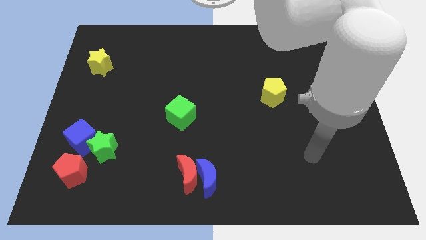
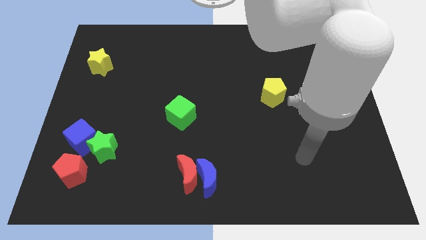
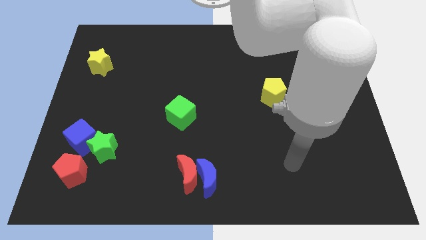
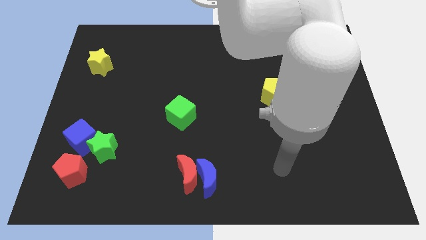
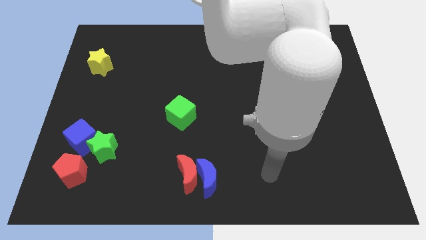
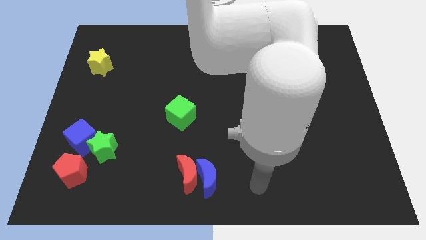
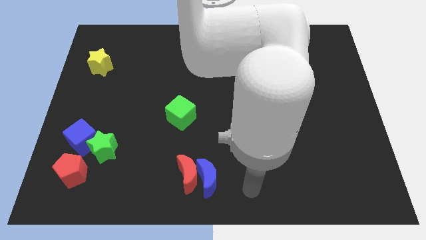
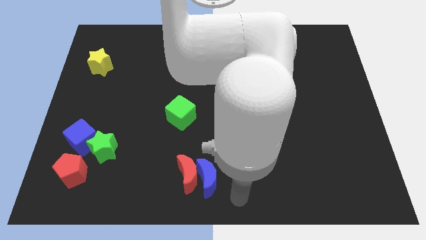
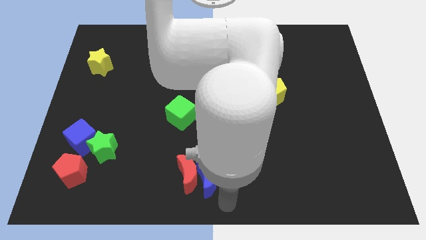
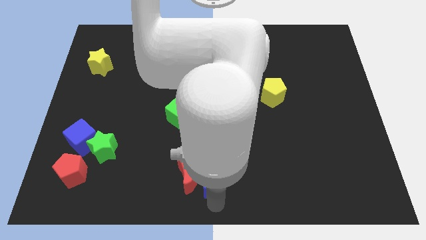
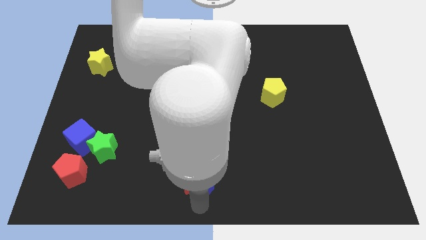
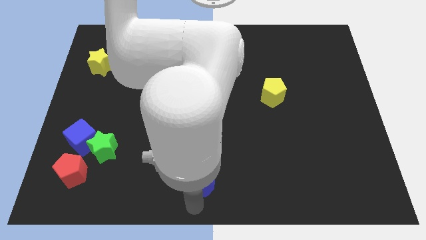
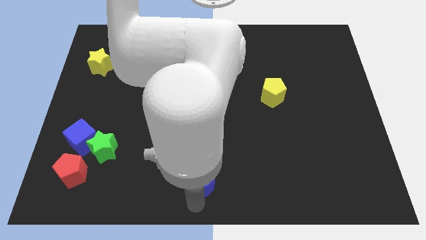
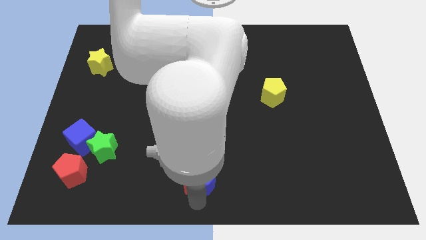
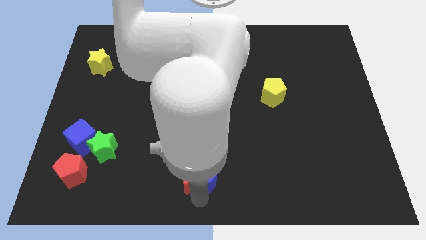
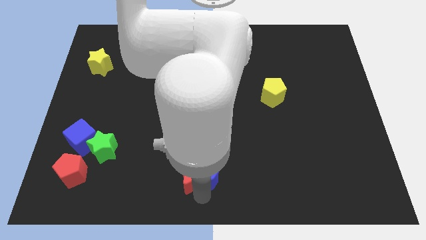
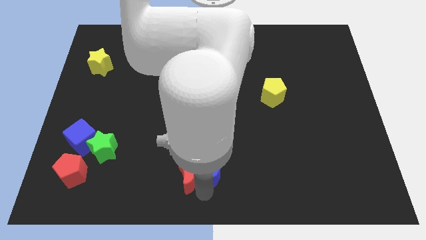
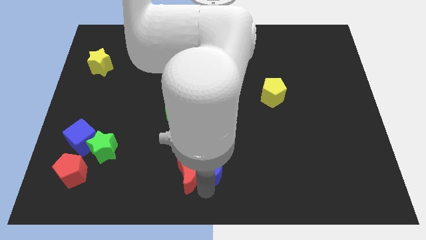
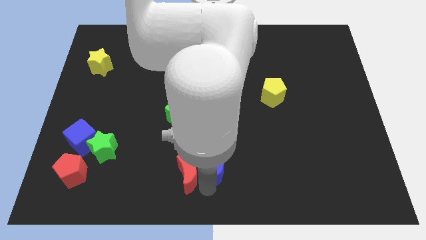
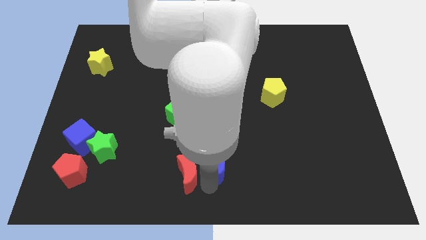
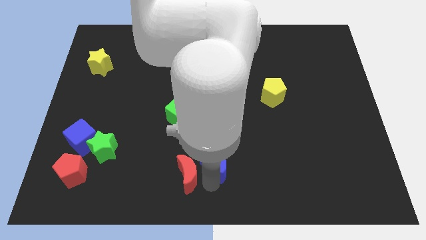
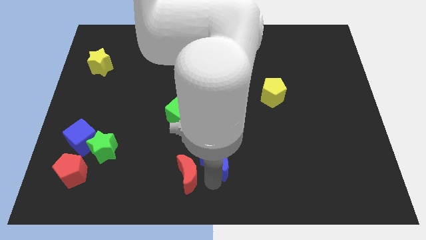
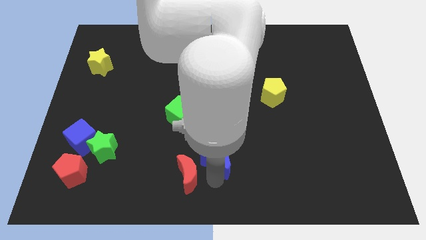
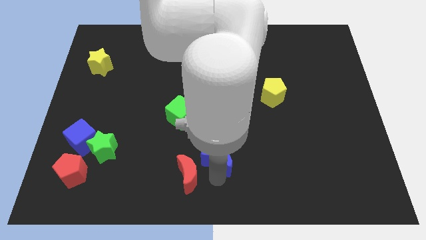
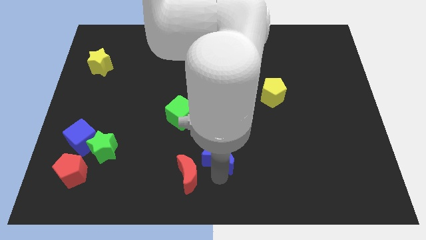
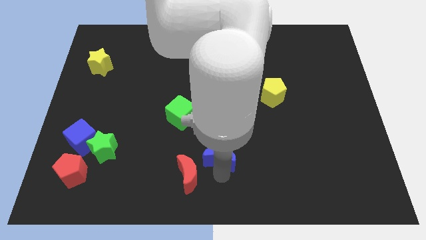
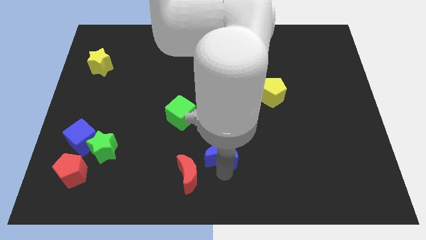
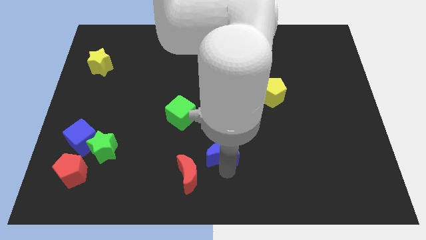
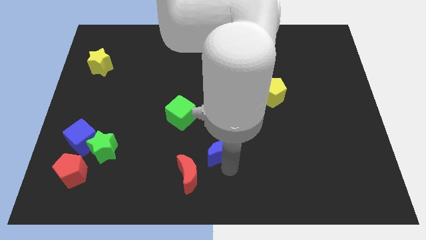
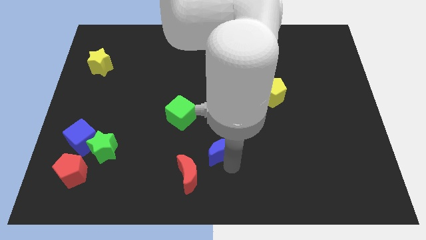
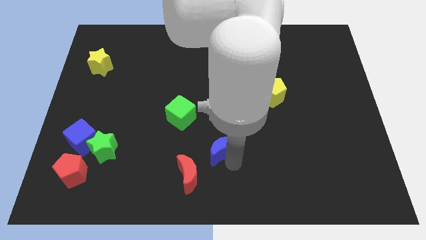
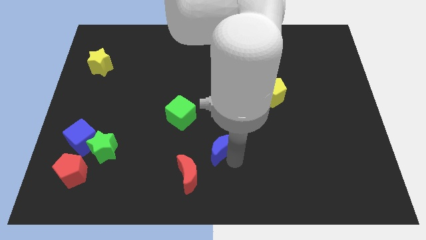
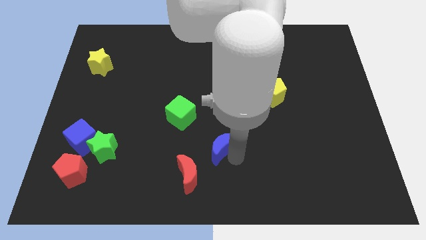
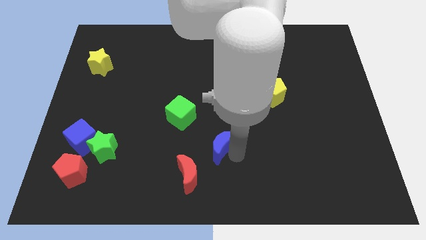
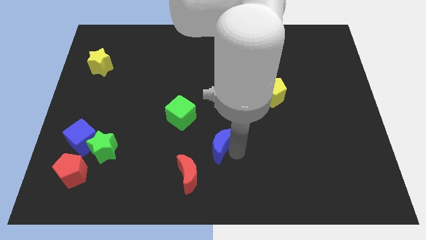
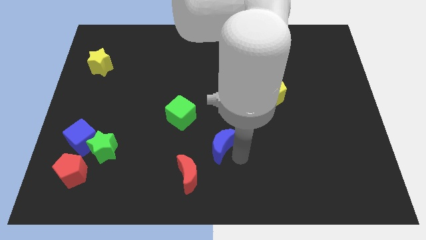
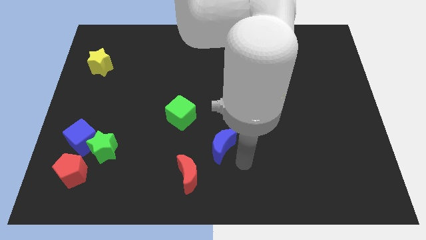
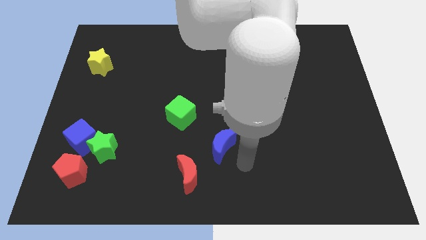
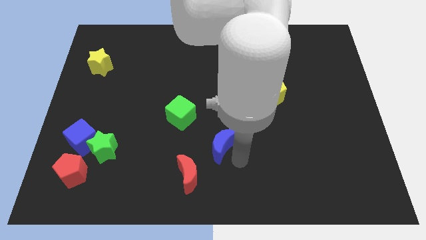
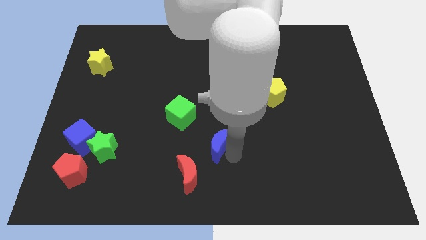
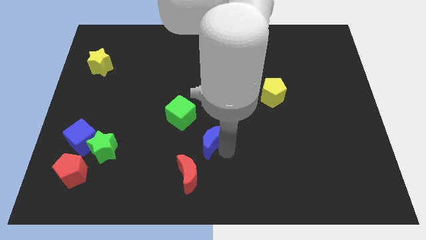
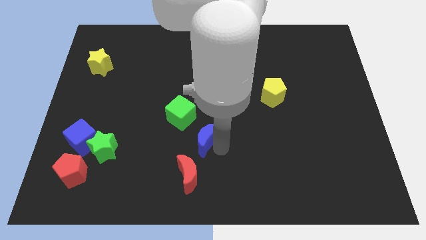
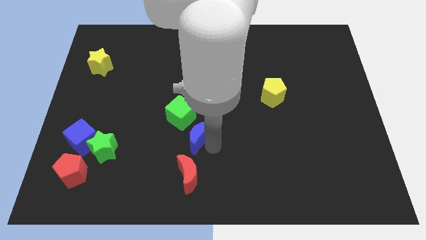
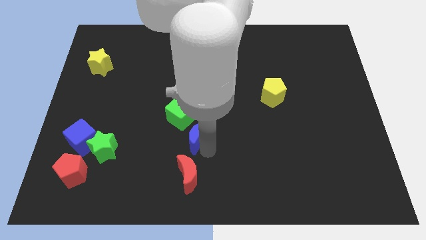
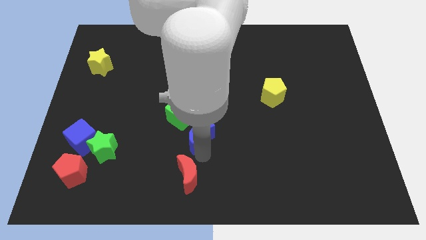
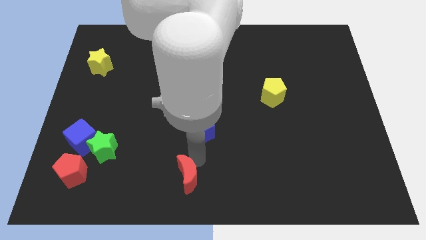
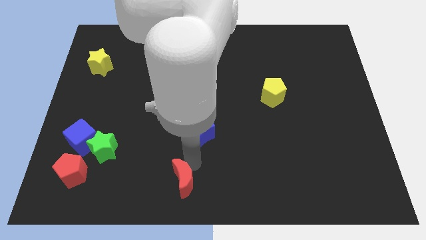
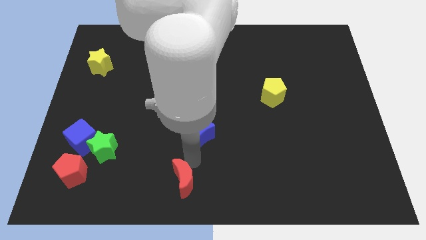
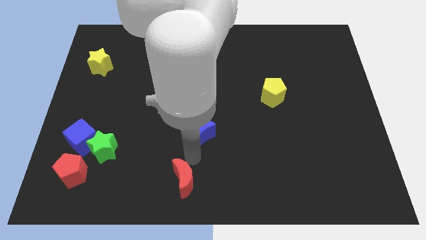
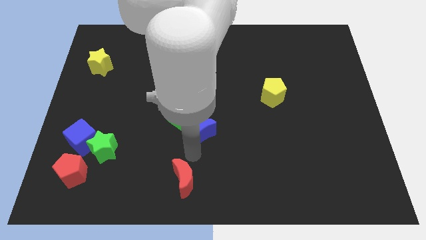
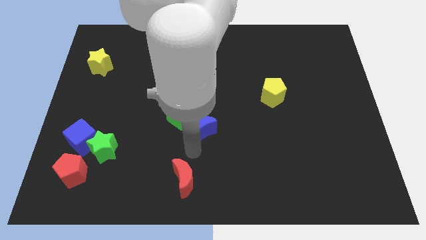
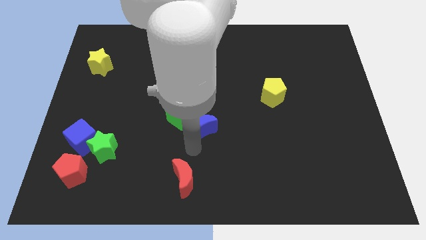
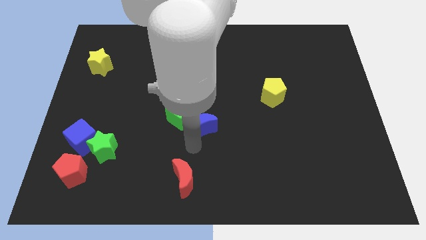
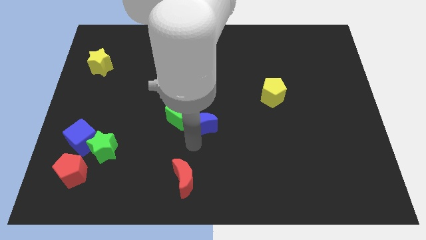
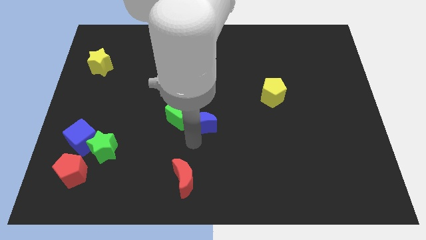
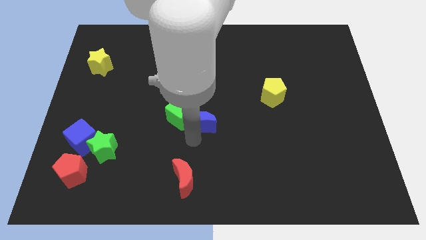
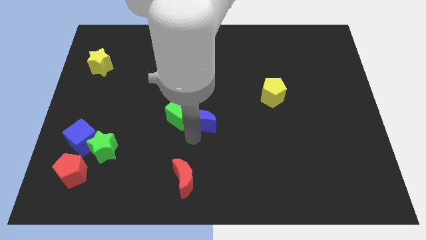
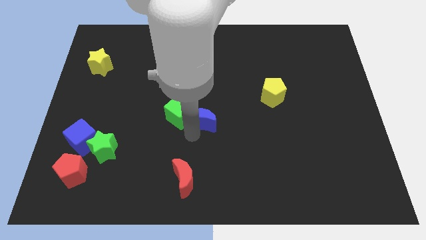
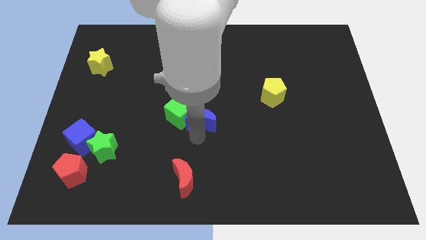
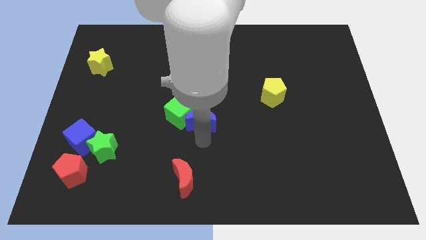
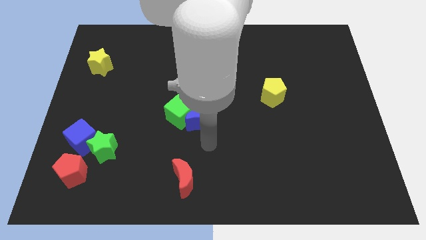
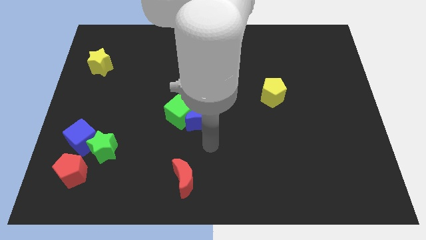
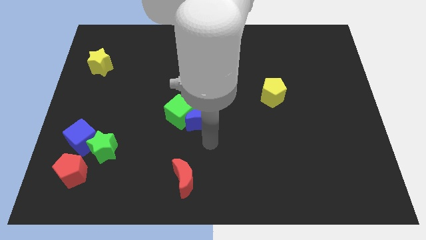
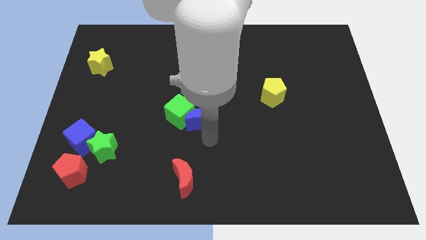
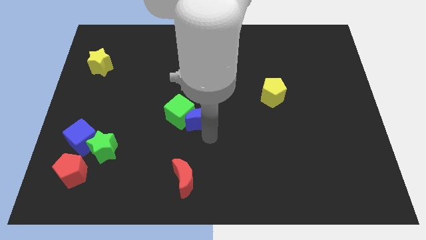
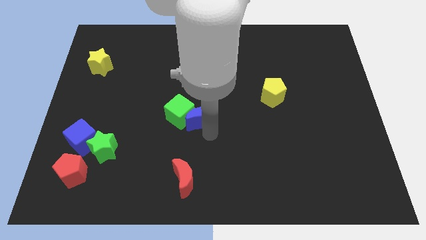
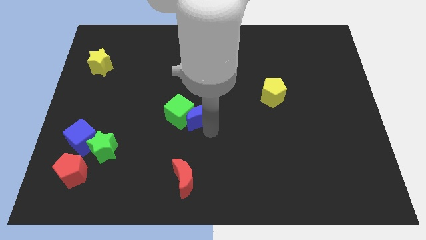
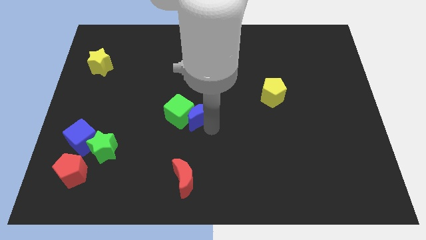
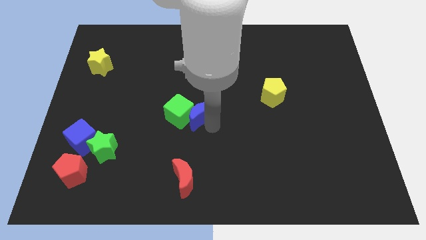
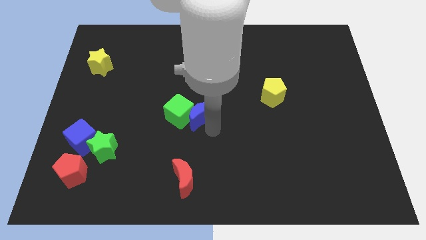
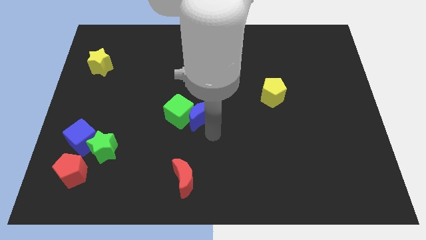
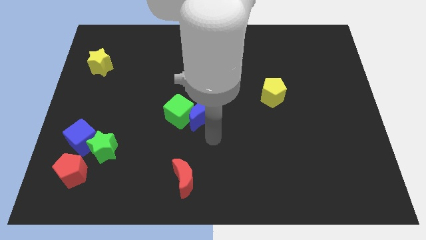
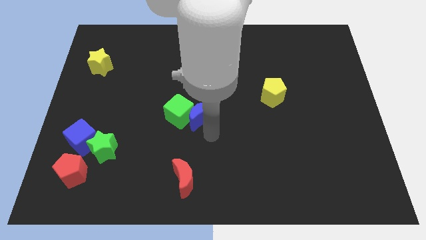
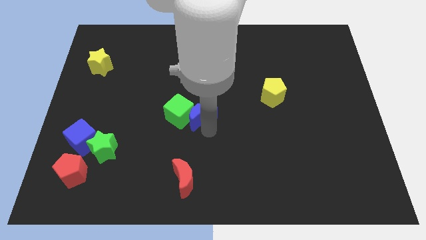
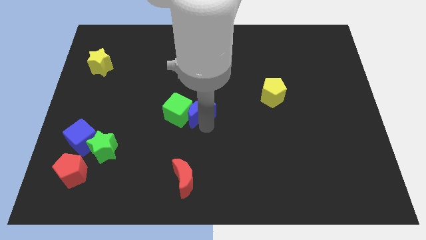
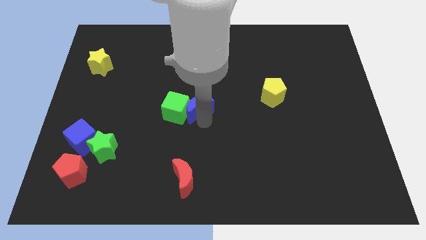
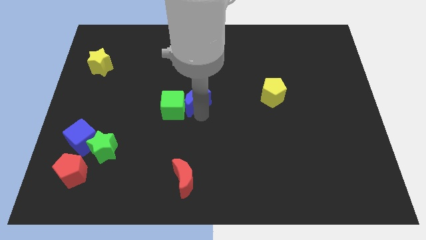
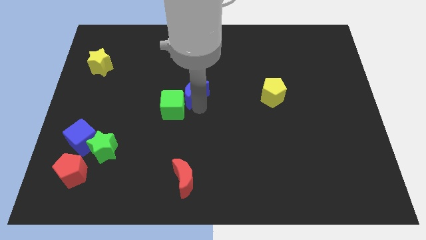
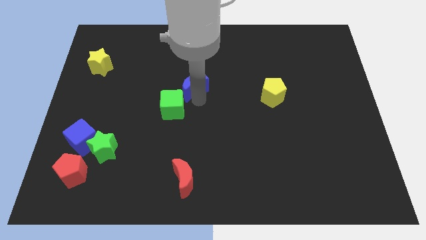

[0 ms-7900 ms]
put the blue moon to the top of the green cube
